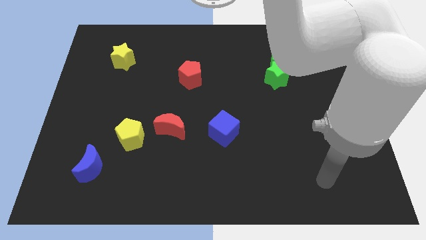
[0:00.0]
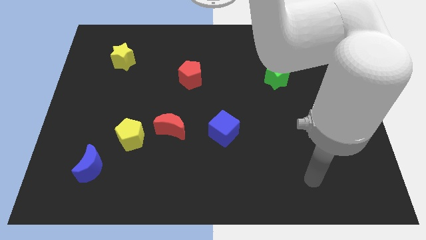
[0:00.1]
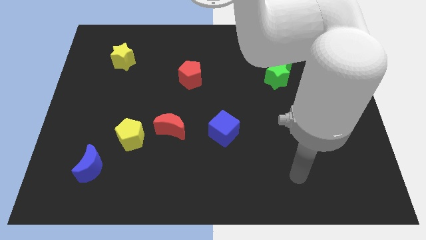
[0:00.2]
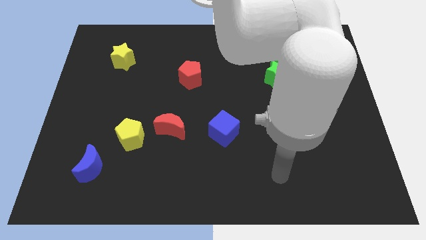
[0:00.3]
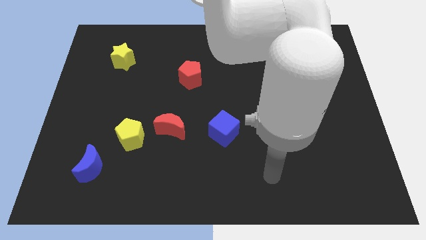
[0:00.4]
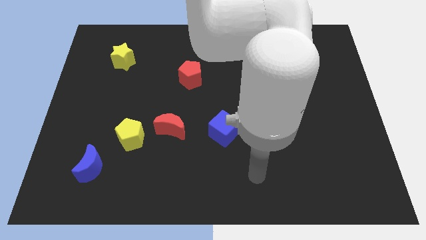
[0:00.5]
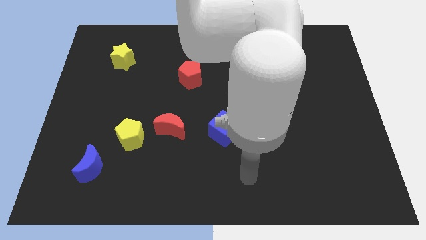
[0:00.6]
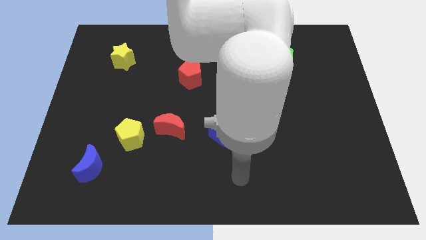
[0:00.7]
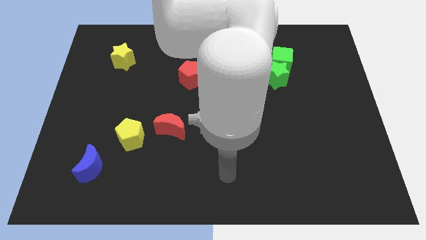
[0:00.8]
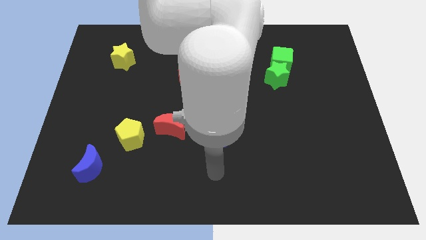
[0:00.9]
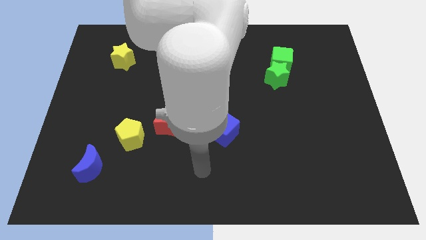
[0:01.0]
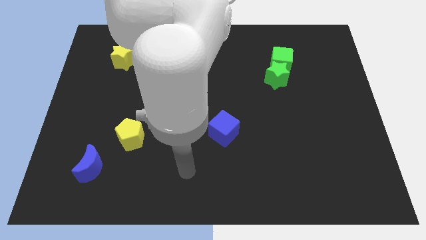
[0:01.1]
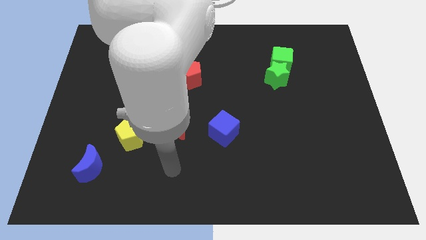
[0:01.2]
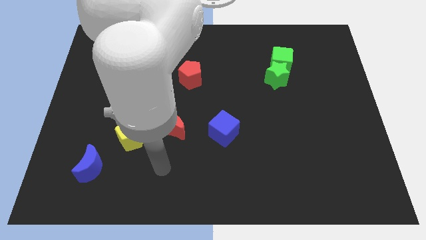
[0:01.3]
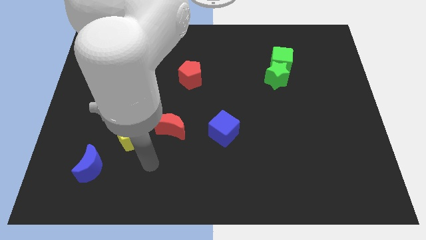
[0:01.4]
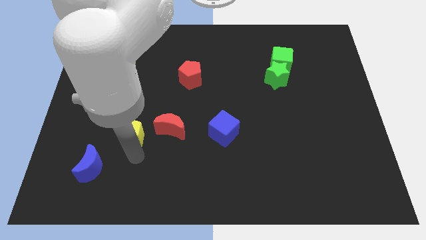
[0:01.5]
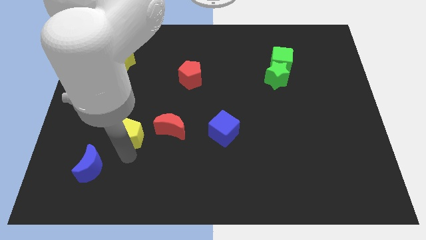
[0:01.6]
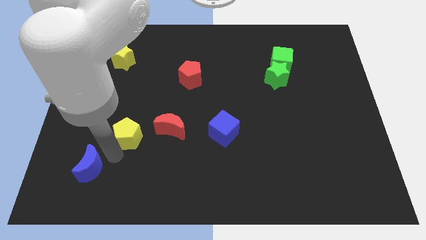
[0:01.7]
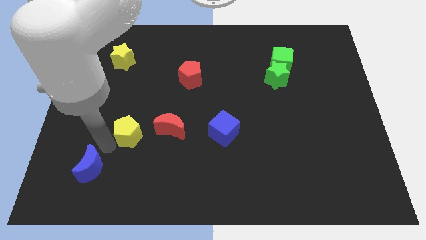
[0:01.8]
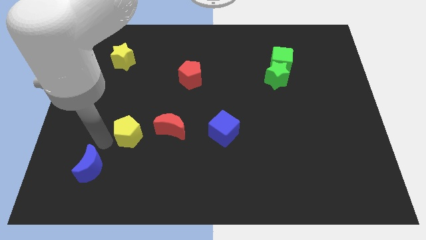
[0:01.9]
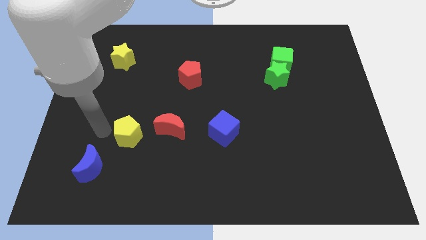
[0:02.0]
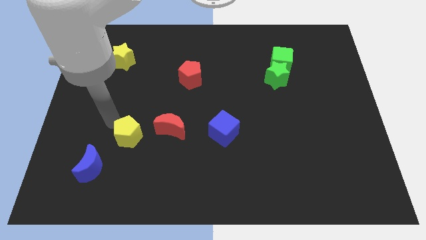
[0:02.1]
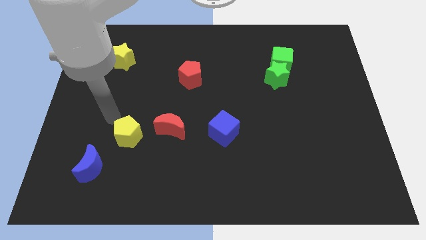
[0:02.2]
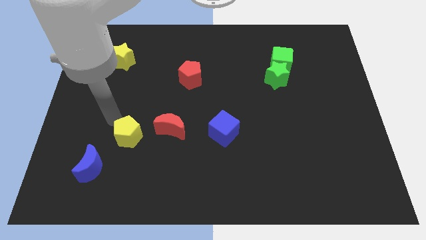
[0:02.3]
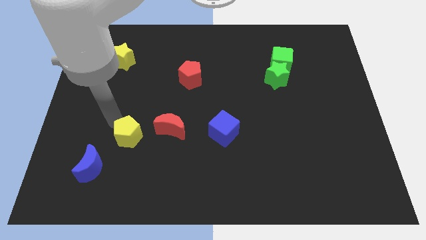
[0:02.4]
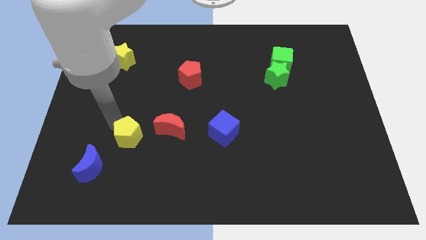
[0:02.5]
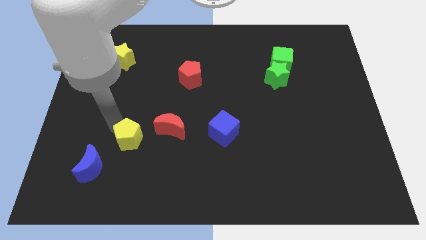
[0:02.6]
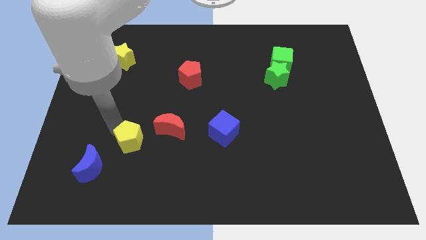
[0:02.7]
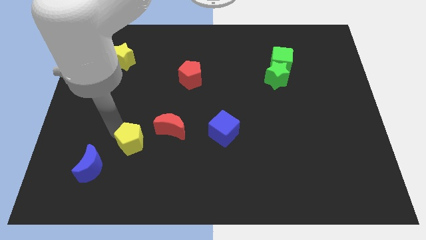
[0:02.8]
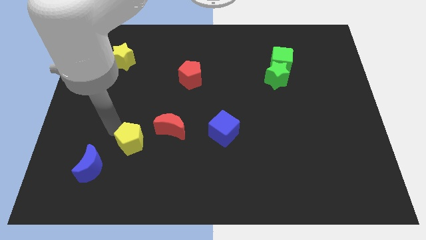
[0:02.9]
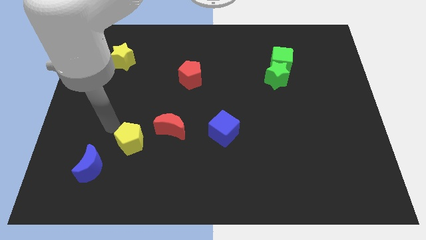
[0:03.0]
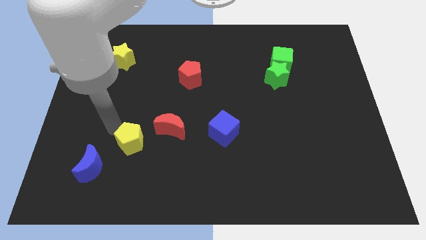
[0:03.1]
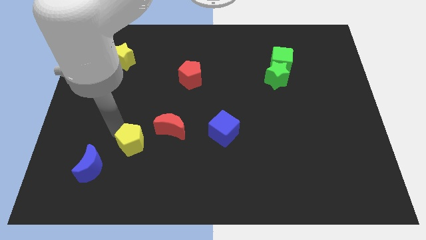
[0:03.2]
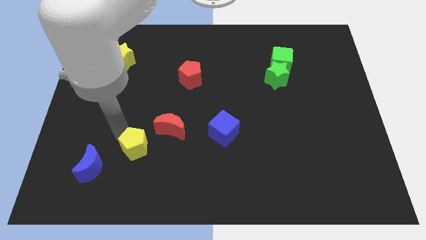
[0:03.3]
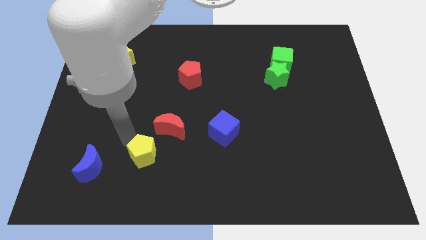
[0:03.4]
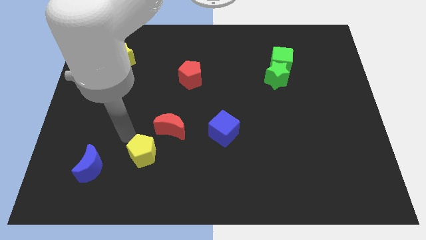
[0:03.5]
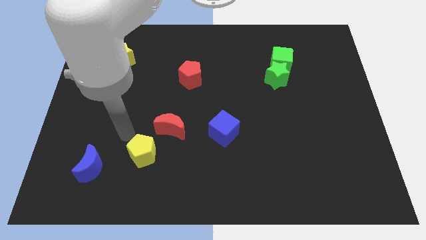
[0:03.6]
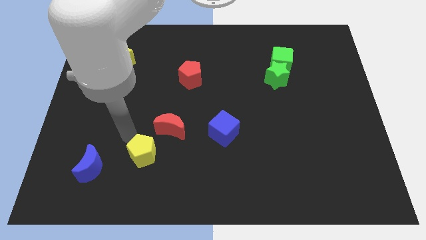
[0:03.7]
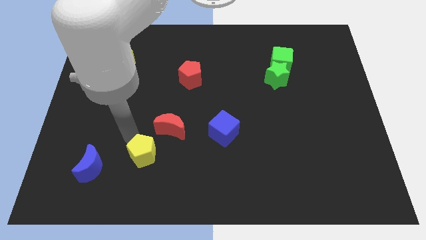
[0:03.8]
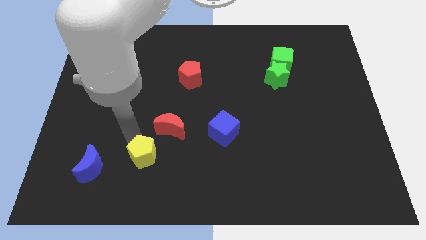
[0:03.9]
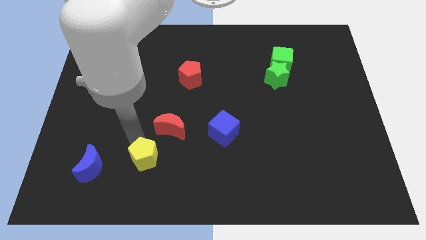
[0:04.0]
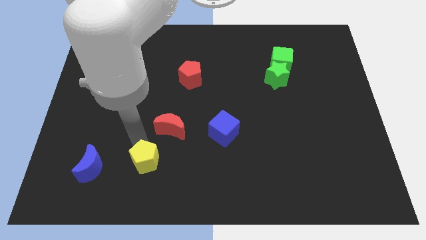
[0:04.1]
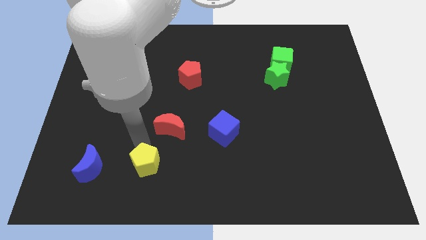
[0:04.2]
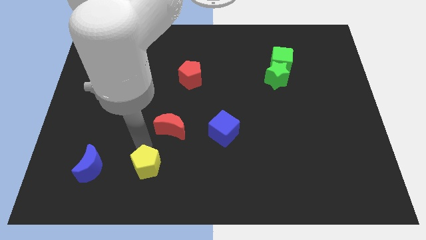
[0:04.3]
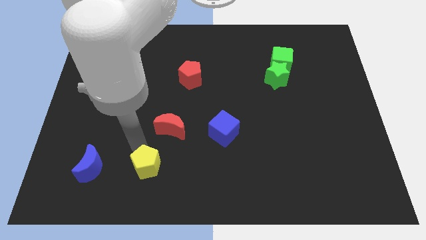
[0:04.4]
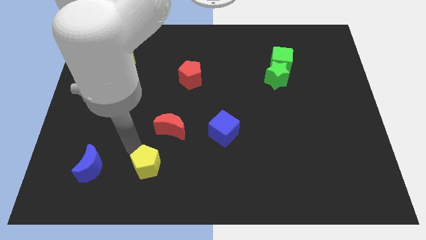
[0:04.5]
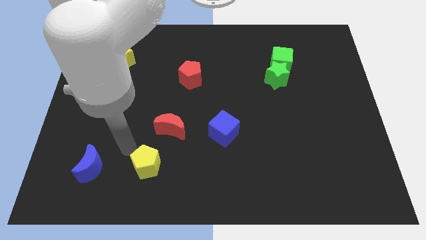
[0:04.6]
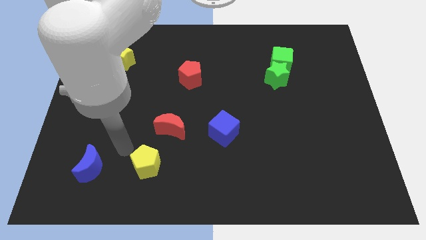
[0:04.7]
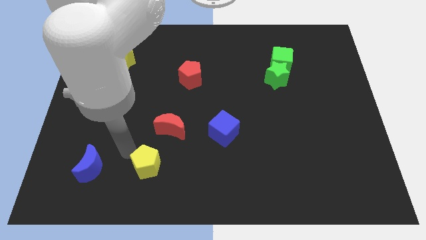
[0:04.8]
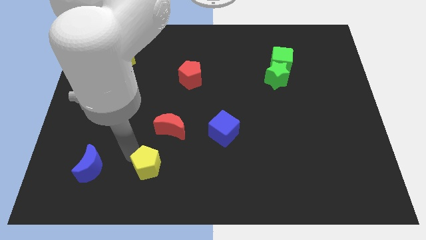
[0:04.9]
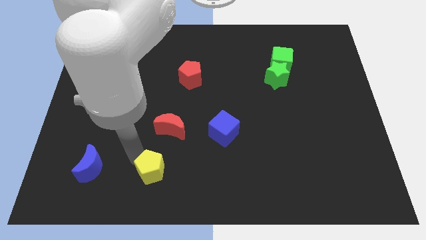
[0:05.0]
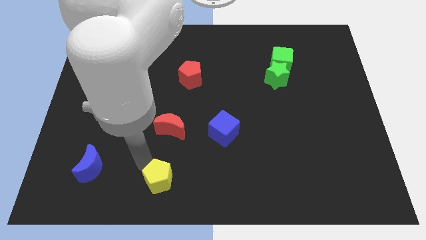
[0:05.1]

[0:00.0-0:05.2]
put the yellow pentagon to the bottom

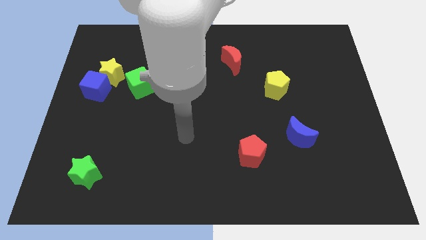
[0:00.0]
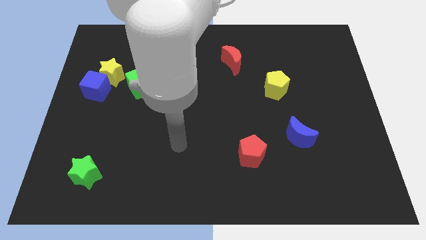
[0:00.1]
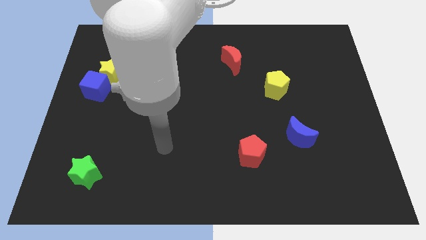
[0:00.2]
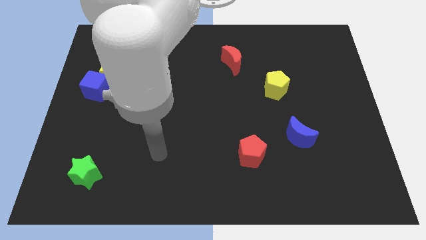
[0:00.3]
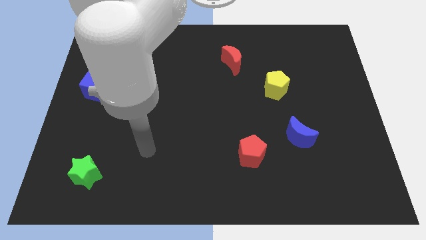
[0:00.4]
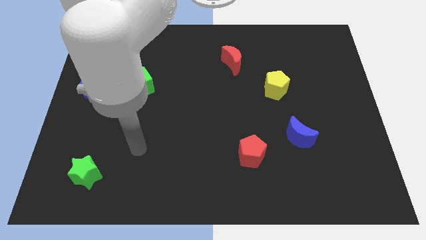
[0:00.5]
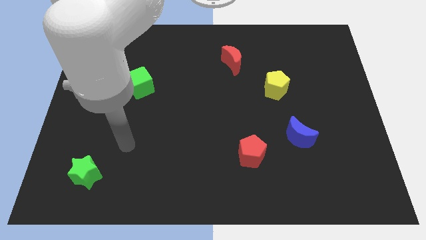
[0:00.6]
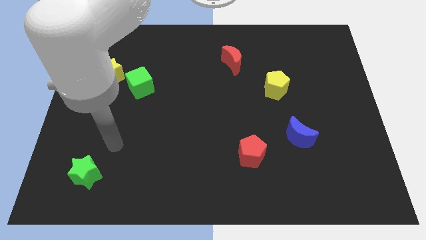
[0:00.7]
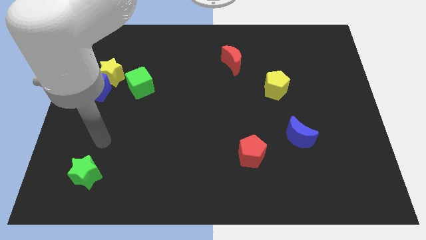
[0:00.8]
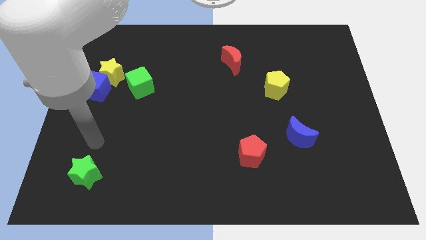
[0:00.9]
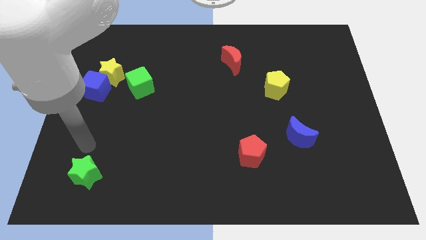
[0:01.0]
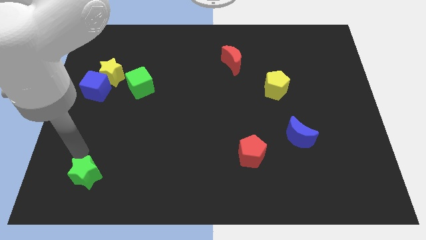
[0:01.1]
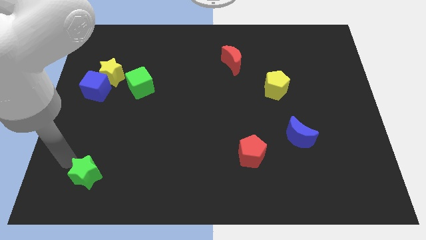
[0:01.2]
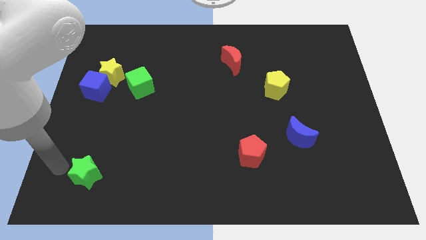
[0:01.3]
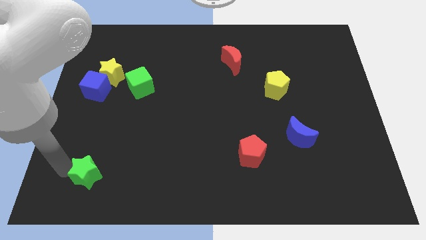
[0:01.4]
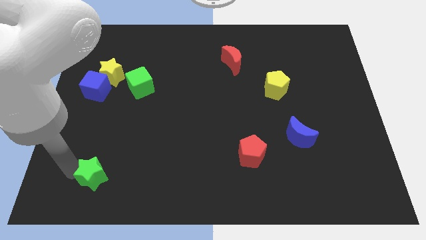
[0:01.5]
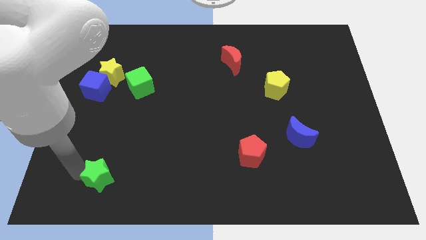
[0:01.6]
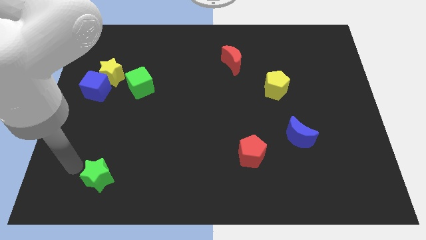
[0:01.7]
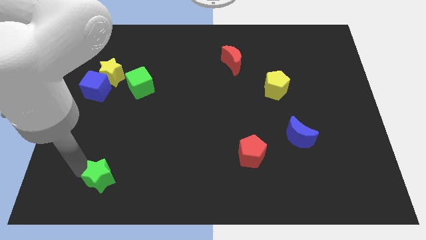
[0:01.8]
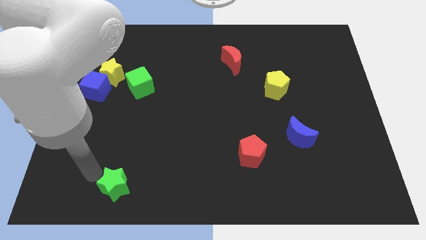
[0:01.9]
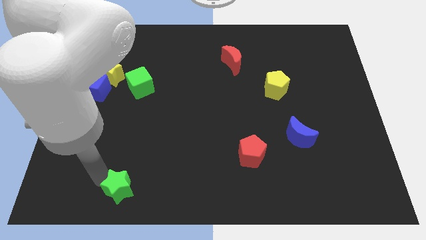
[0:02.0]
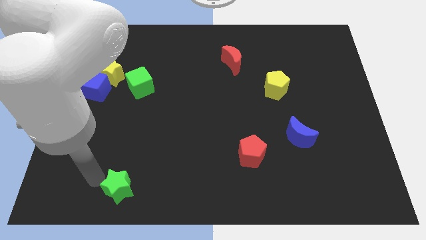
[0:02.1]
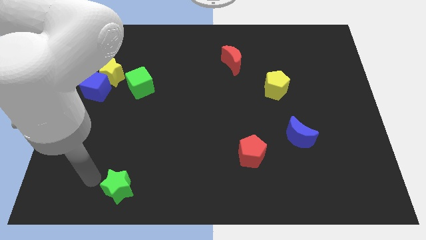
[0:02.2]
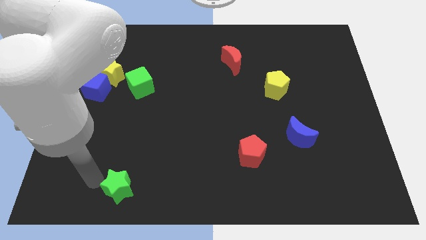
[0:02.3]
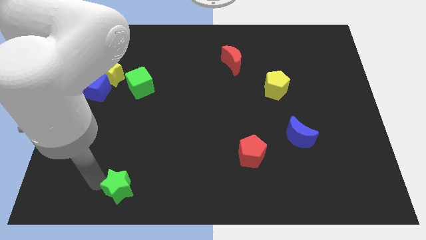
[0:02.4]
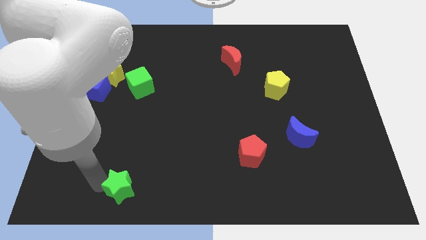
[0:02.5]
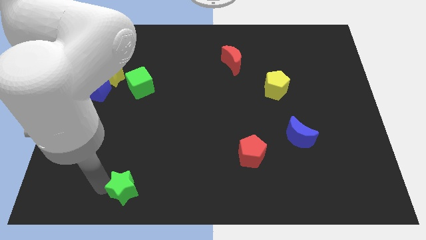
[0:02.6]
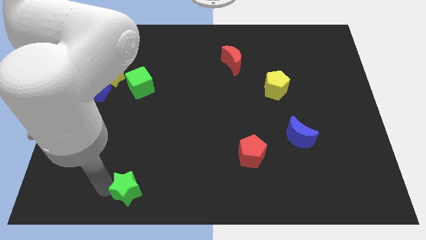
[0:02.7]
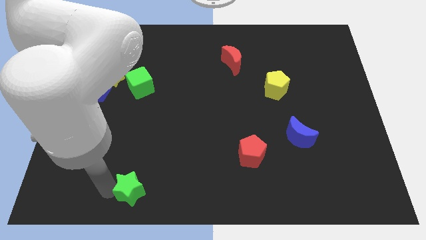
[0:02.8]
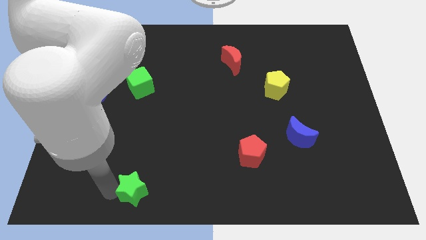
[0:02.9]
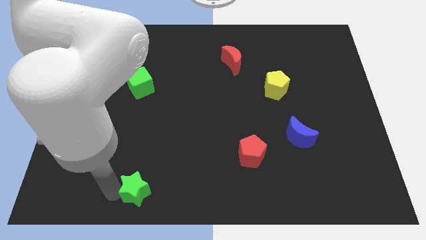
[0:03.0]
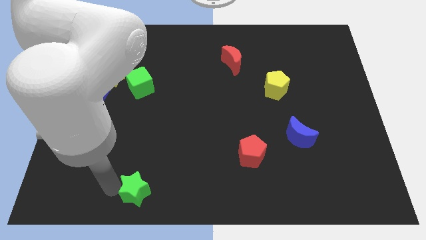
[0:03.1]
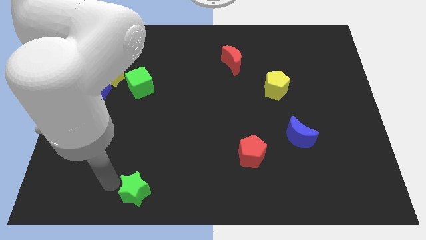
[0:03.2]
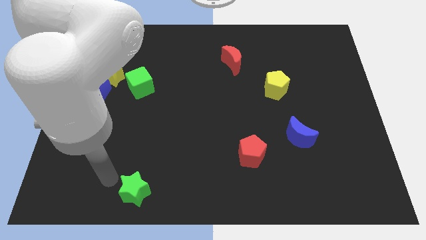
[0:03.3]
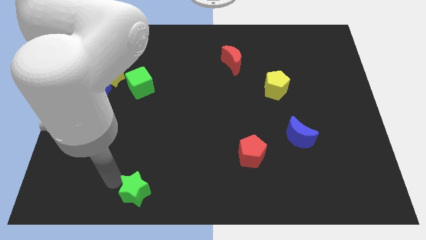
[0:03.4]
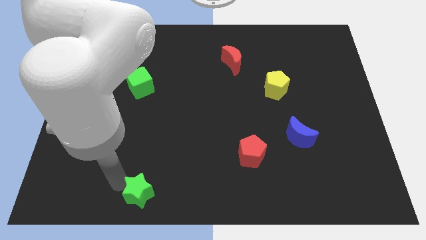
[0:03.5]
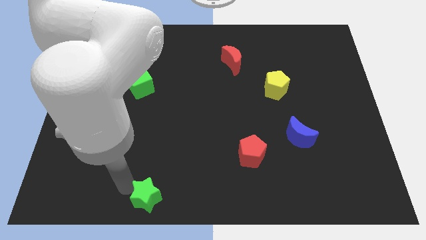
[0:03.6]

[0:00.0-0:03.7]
slide the green star to the bottom
